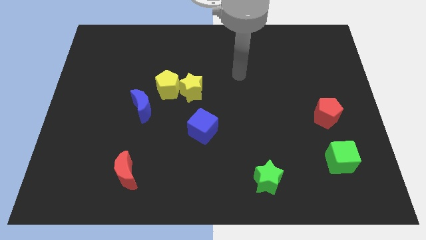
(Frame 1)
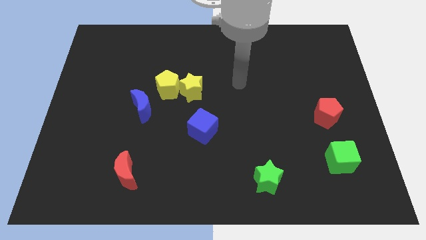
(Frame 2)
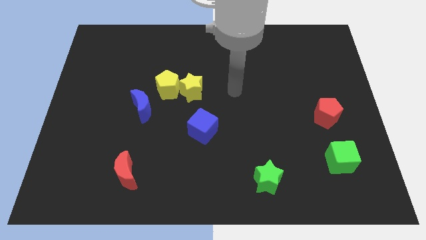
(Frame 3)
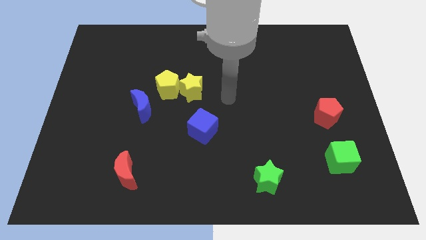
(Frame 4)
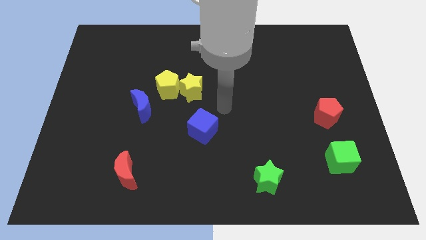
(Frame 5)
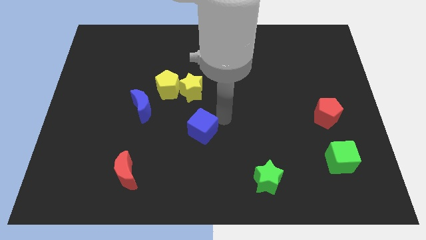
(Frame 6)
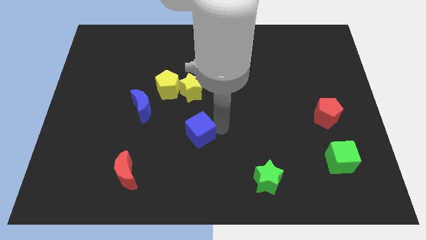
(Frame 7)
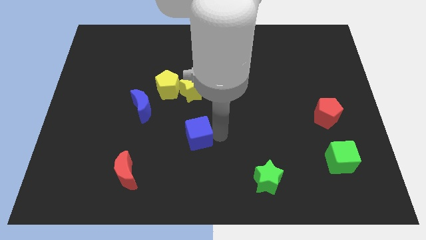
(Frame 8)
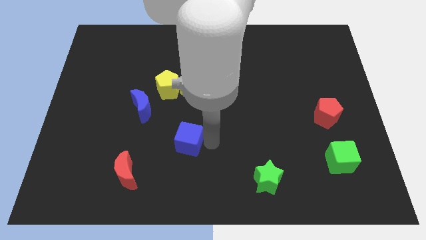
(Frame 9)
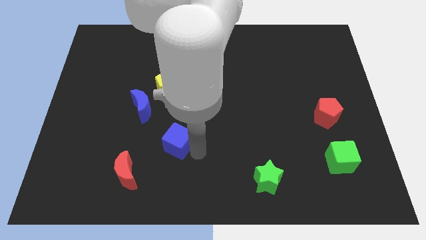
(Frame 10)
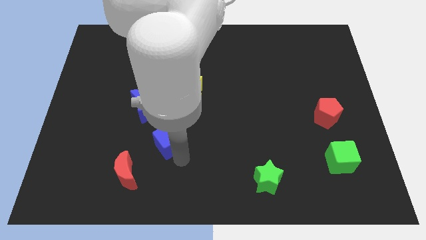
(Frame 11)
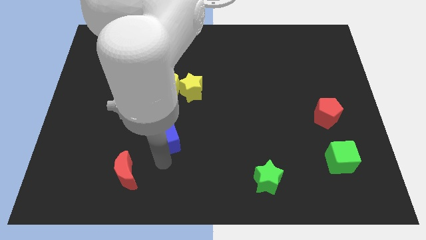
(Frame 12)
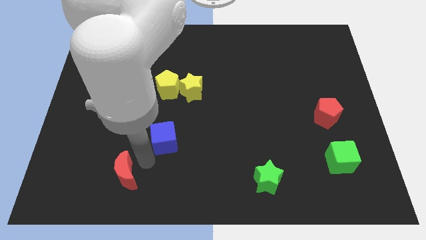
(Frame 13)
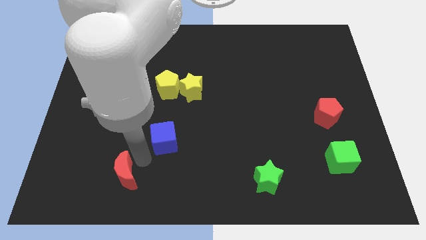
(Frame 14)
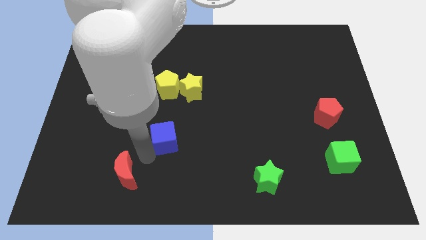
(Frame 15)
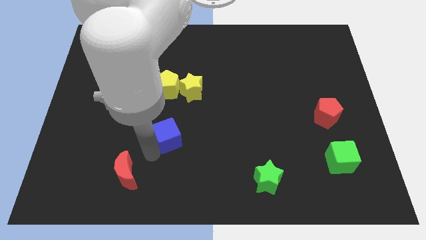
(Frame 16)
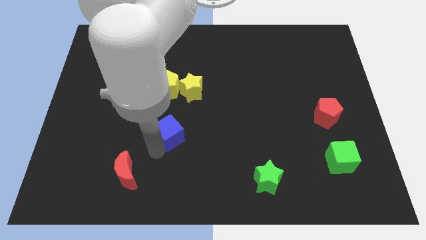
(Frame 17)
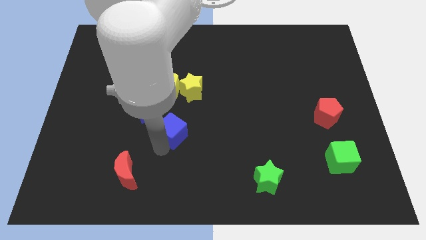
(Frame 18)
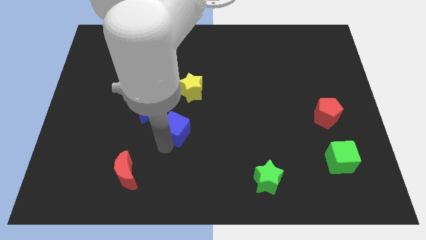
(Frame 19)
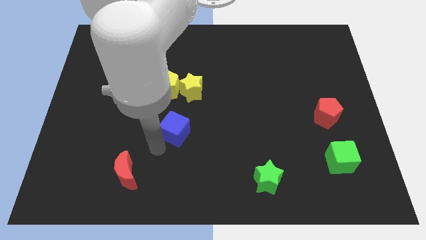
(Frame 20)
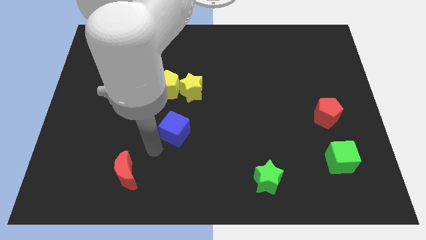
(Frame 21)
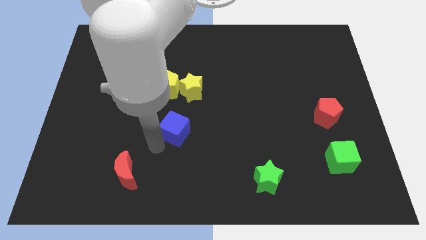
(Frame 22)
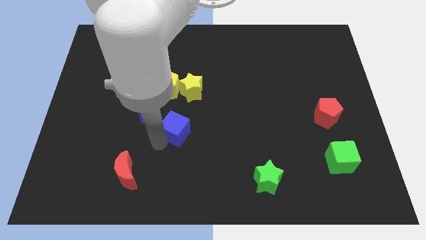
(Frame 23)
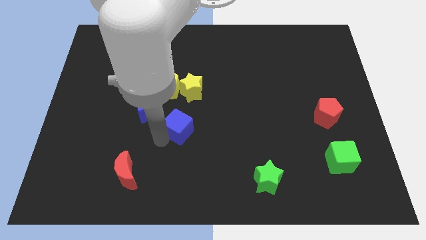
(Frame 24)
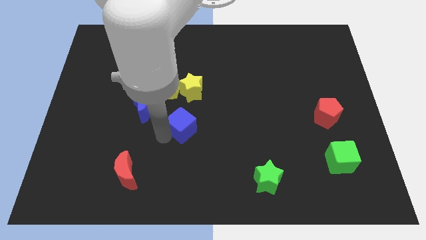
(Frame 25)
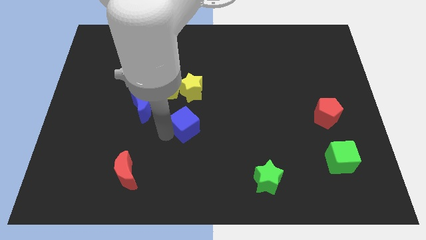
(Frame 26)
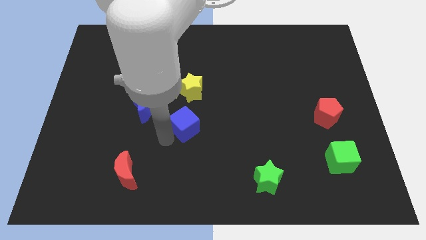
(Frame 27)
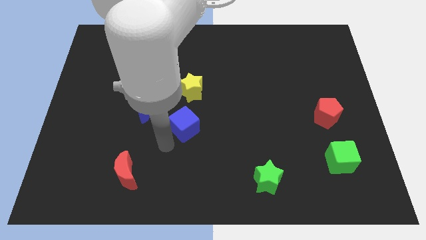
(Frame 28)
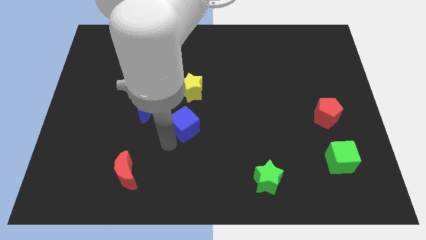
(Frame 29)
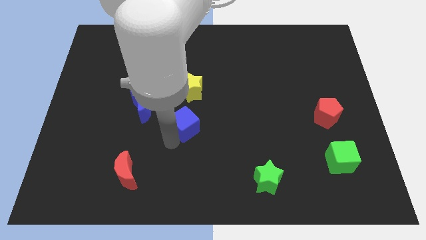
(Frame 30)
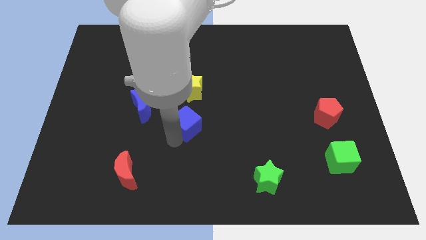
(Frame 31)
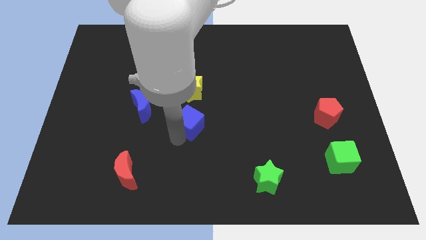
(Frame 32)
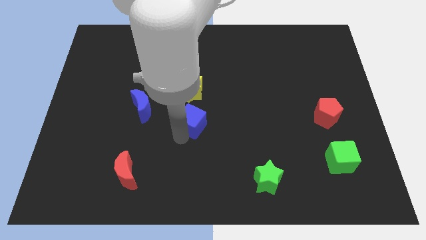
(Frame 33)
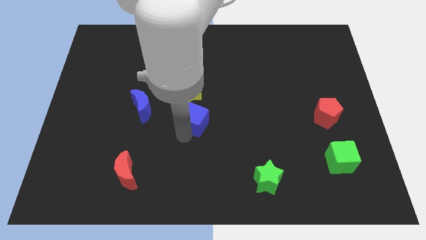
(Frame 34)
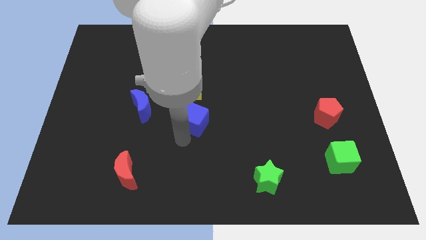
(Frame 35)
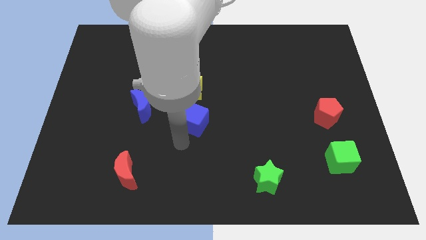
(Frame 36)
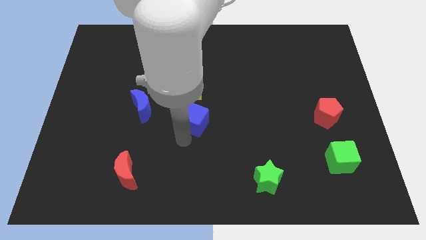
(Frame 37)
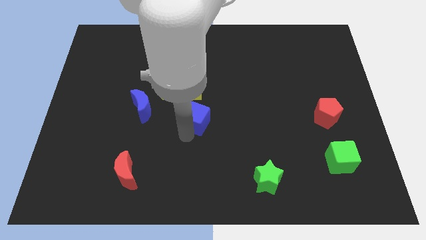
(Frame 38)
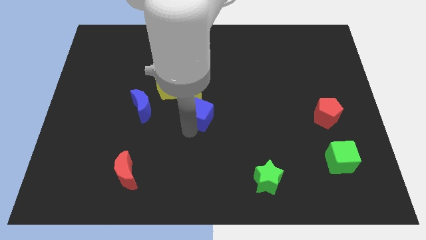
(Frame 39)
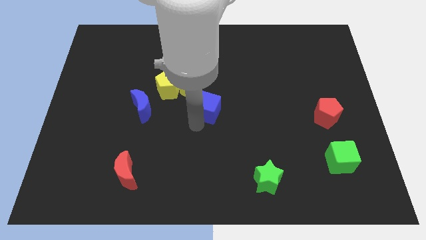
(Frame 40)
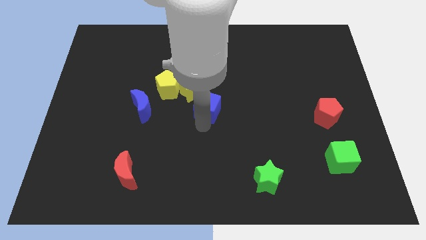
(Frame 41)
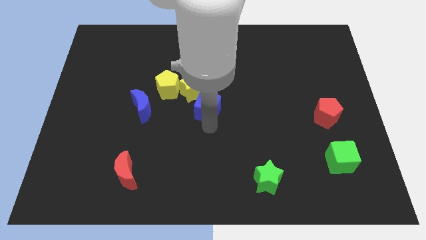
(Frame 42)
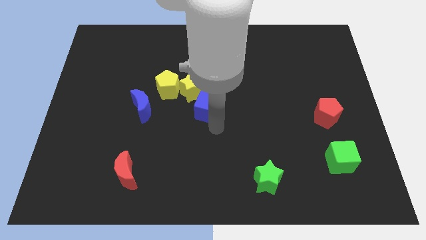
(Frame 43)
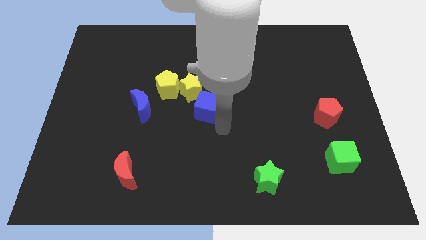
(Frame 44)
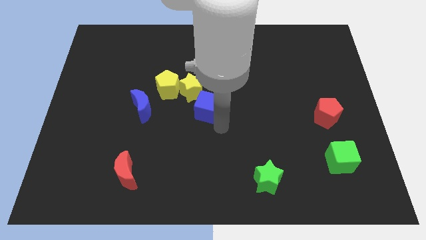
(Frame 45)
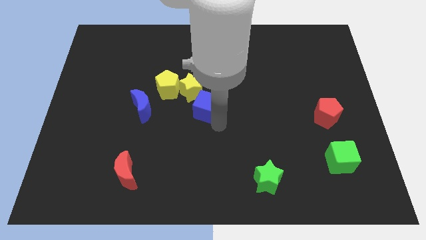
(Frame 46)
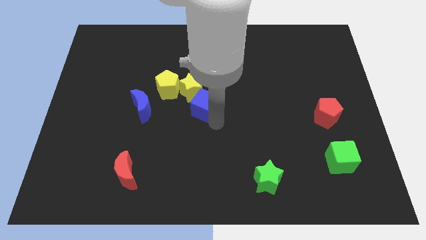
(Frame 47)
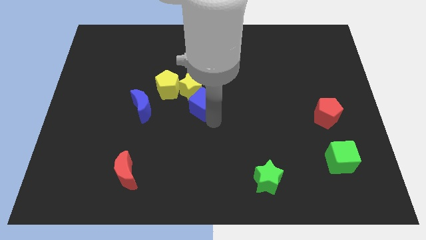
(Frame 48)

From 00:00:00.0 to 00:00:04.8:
put the blue cube close to the yellow star

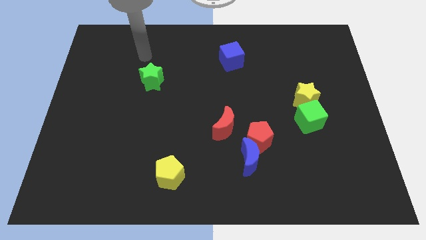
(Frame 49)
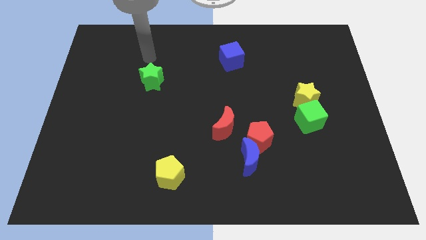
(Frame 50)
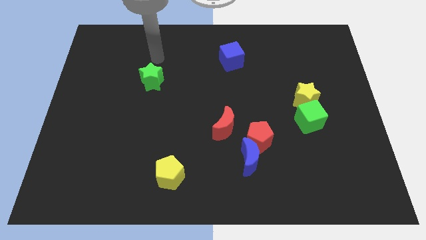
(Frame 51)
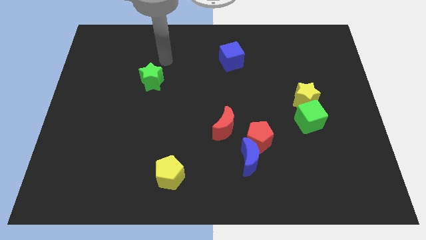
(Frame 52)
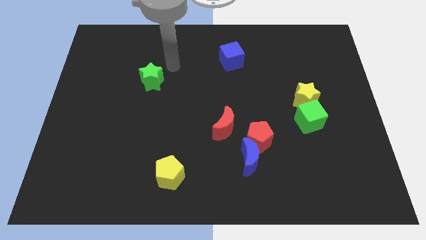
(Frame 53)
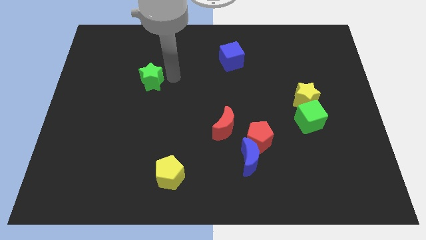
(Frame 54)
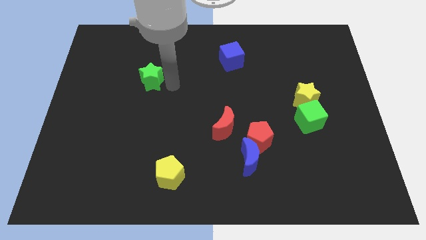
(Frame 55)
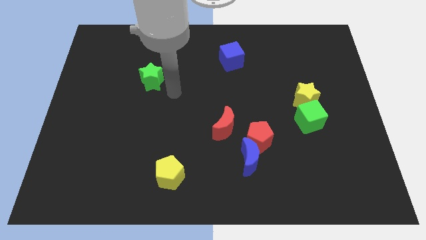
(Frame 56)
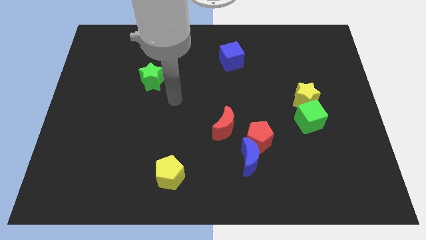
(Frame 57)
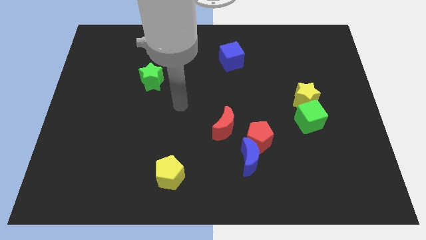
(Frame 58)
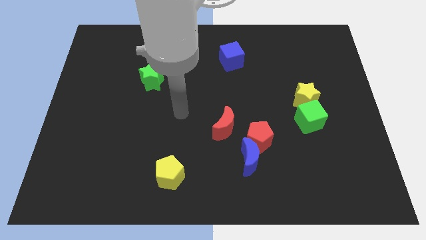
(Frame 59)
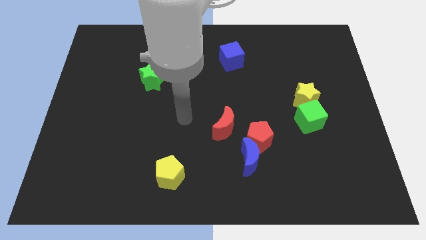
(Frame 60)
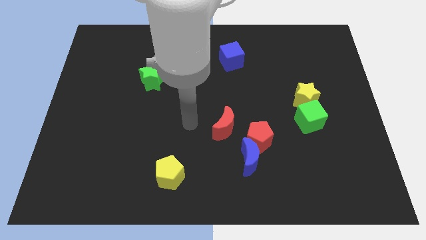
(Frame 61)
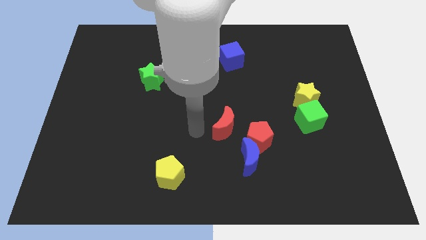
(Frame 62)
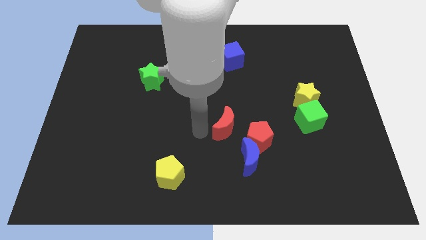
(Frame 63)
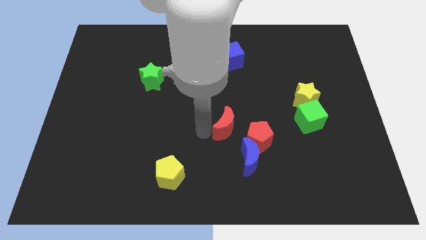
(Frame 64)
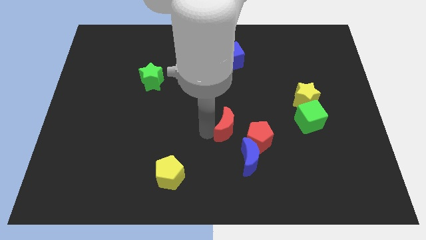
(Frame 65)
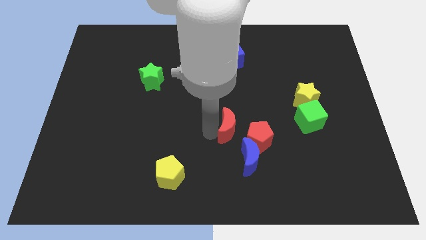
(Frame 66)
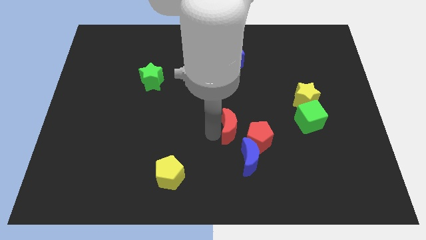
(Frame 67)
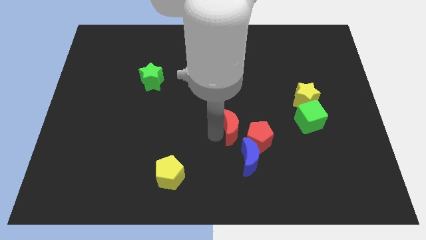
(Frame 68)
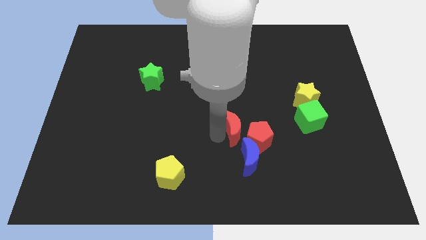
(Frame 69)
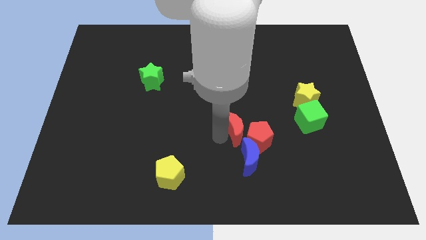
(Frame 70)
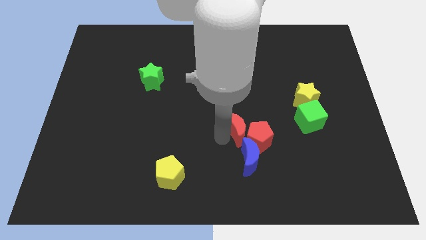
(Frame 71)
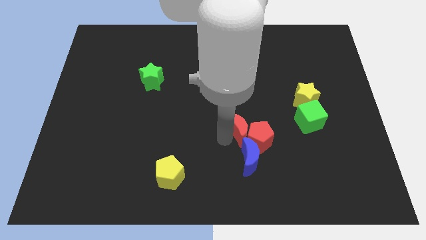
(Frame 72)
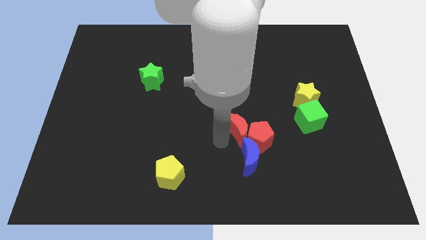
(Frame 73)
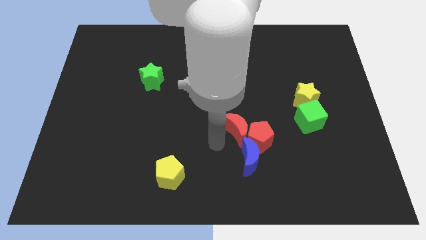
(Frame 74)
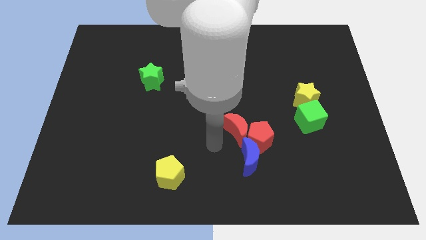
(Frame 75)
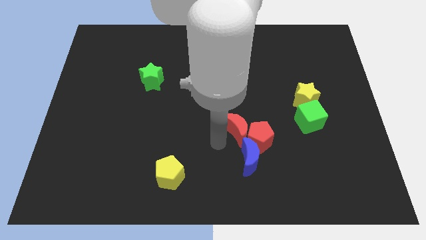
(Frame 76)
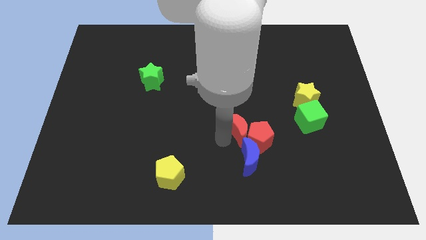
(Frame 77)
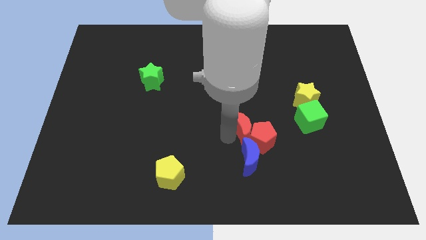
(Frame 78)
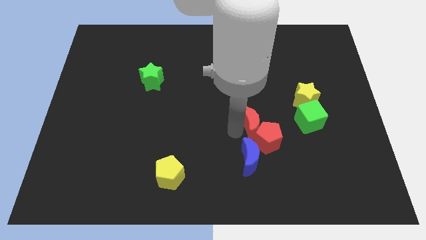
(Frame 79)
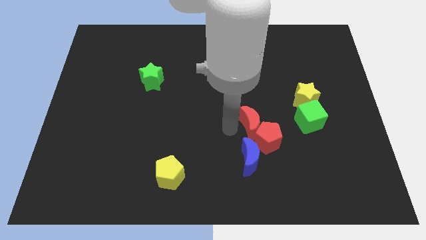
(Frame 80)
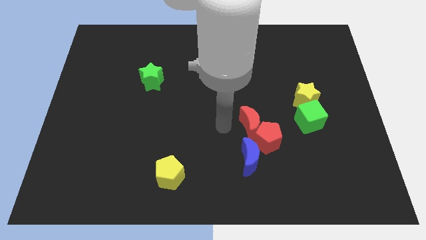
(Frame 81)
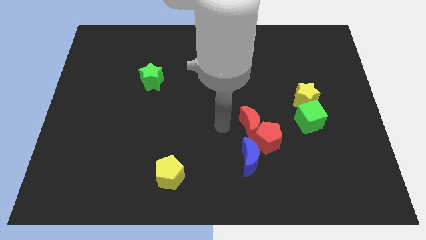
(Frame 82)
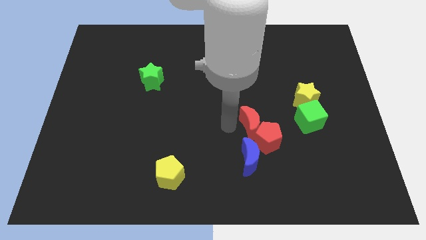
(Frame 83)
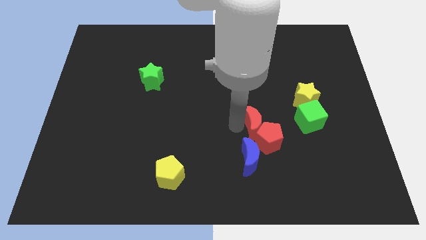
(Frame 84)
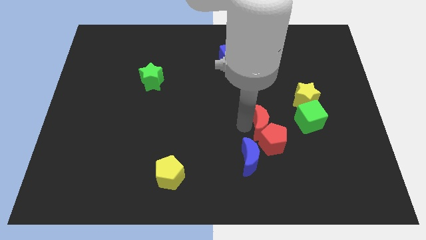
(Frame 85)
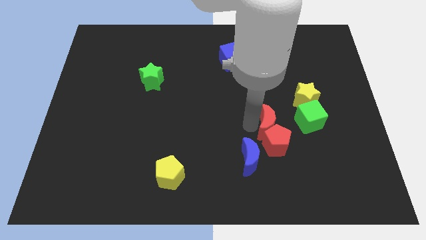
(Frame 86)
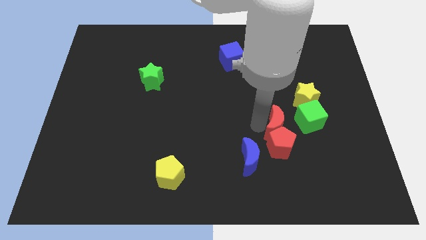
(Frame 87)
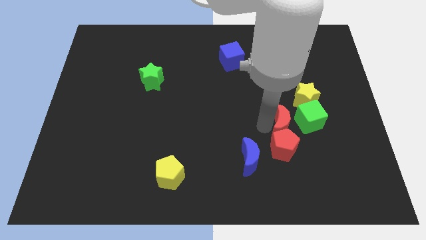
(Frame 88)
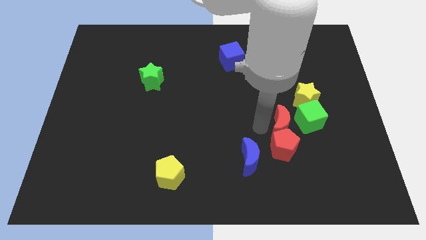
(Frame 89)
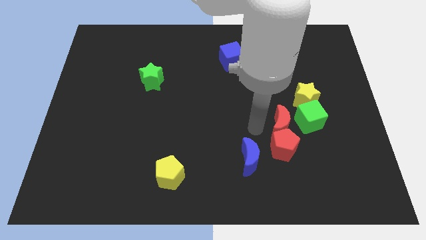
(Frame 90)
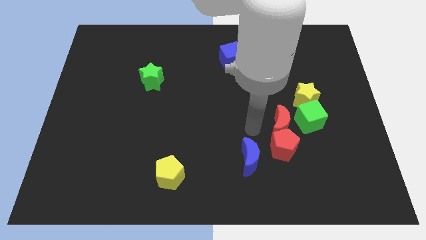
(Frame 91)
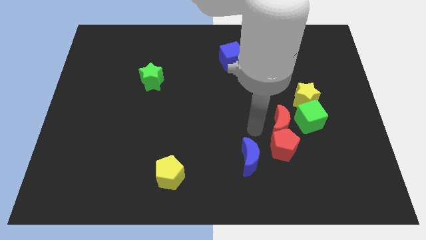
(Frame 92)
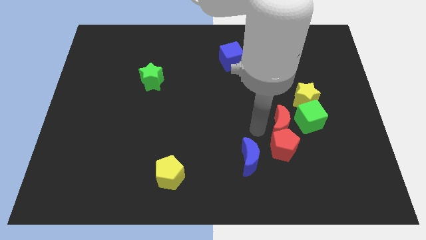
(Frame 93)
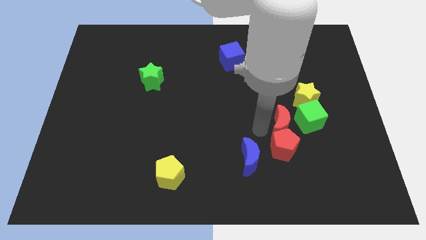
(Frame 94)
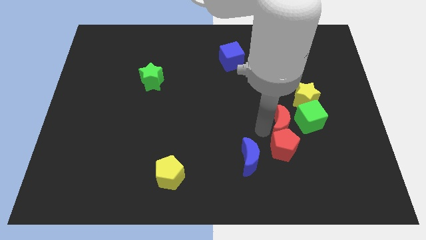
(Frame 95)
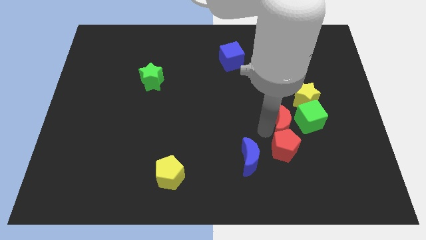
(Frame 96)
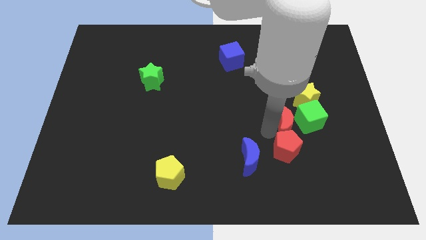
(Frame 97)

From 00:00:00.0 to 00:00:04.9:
slide the red moon close to the green cube
